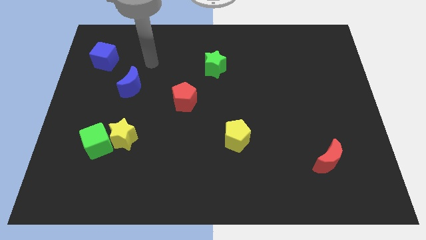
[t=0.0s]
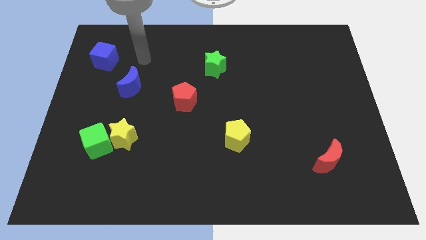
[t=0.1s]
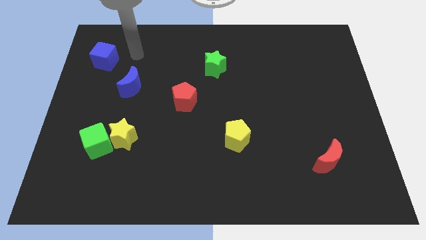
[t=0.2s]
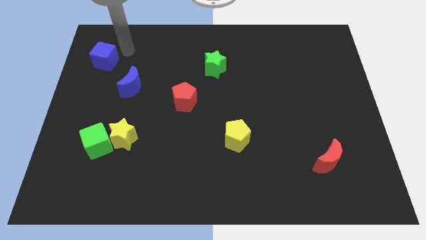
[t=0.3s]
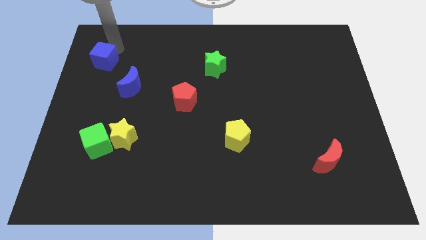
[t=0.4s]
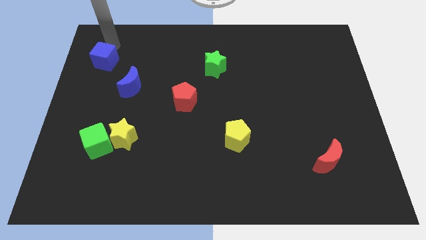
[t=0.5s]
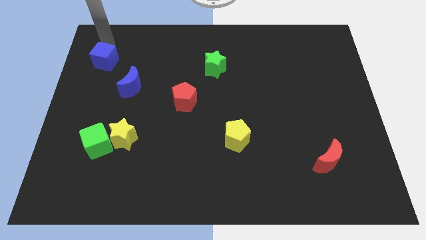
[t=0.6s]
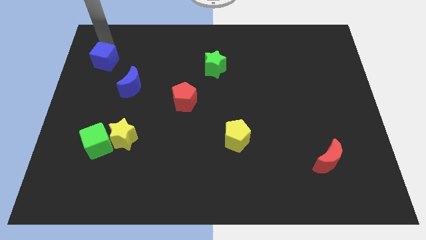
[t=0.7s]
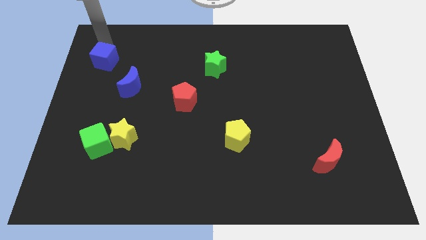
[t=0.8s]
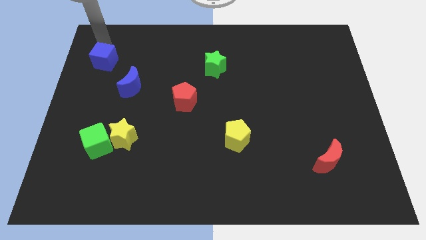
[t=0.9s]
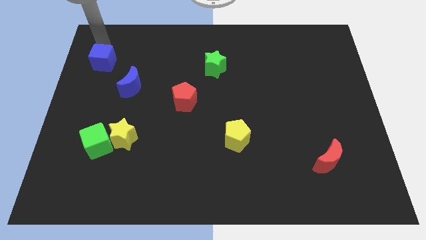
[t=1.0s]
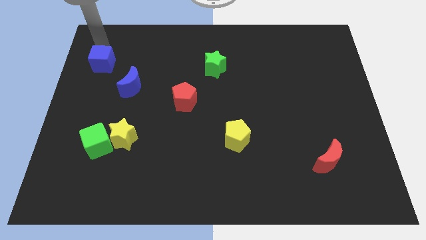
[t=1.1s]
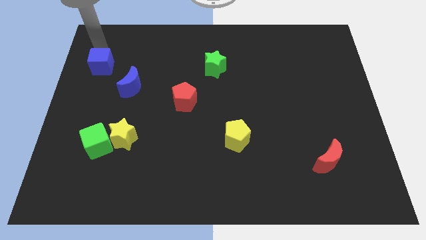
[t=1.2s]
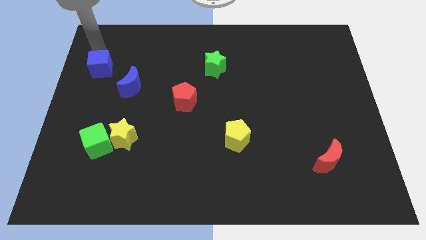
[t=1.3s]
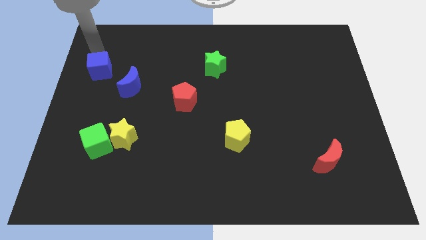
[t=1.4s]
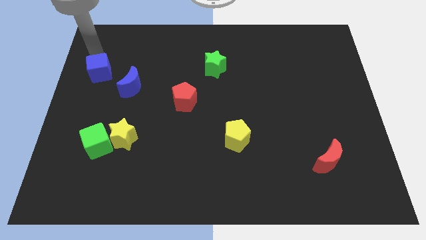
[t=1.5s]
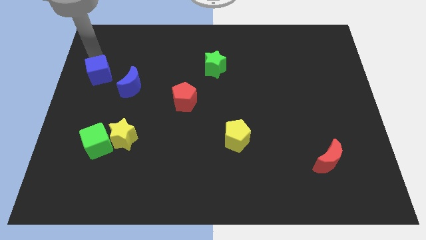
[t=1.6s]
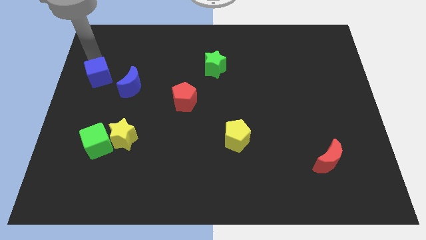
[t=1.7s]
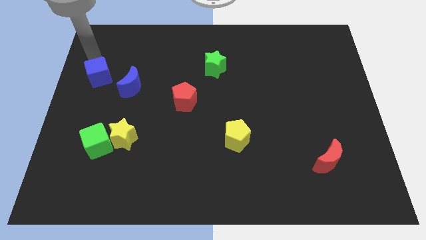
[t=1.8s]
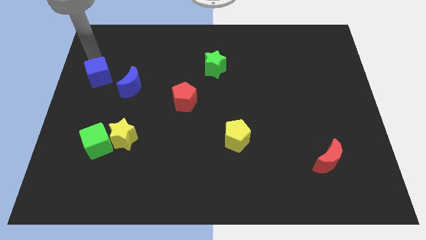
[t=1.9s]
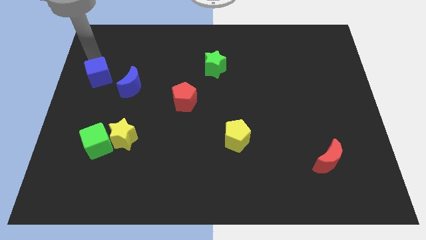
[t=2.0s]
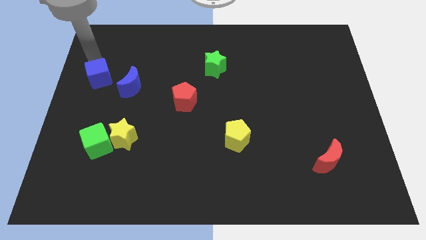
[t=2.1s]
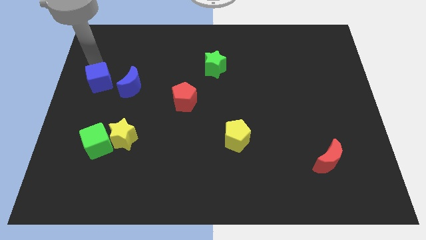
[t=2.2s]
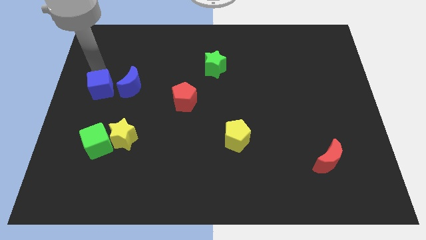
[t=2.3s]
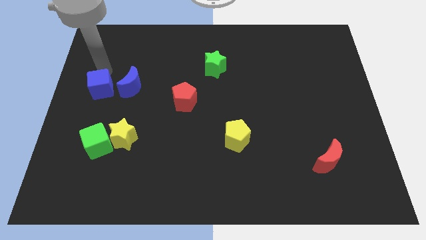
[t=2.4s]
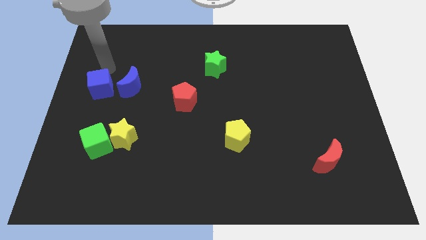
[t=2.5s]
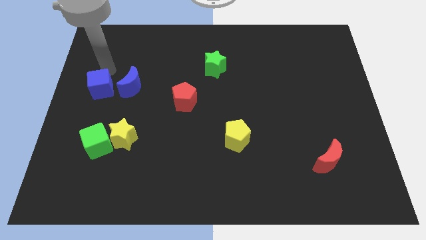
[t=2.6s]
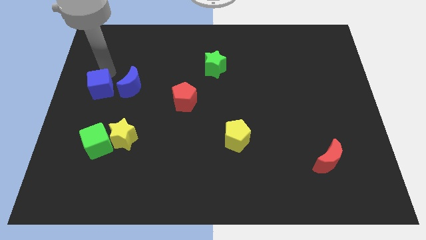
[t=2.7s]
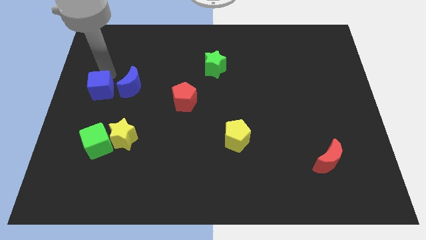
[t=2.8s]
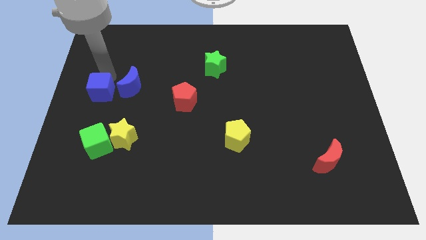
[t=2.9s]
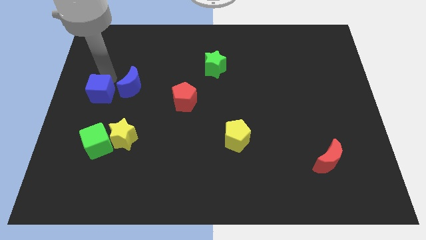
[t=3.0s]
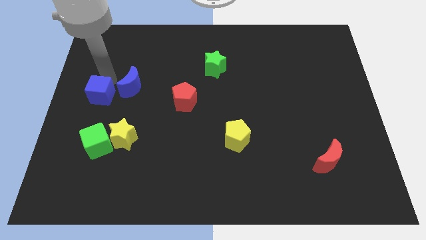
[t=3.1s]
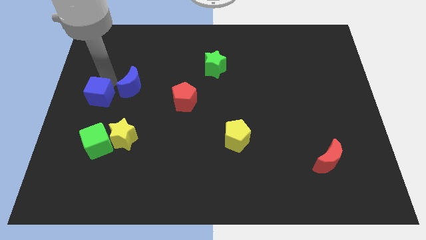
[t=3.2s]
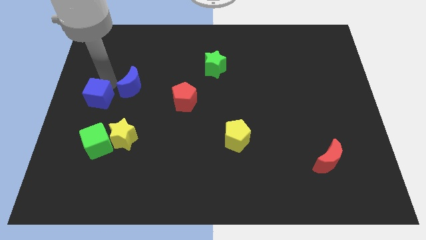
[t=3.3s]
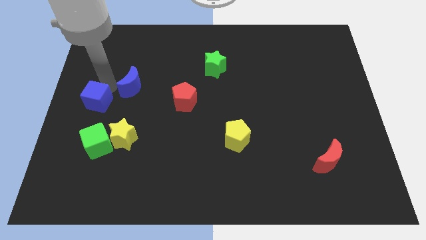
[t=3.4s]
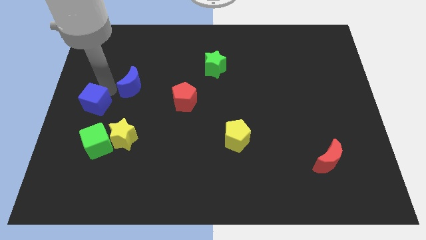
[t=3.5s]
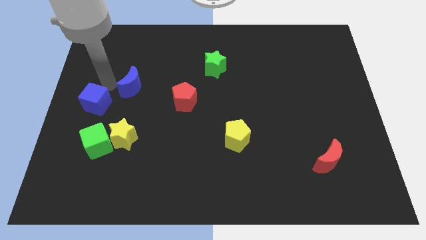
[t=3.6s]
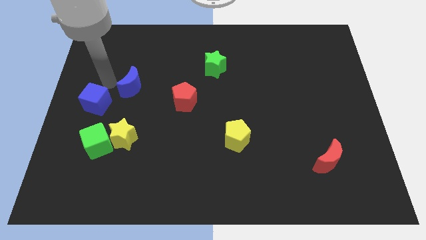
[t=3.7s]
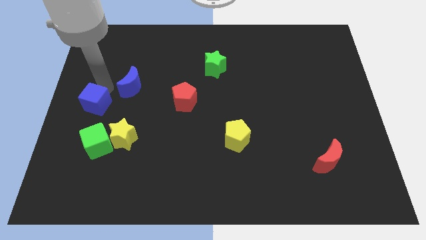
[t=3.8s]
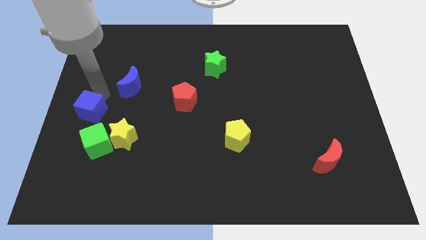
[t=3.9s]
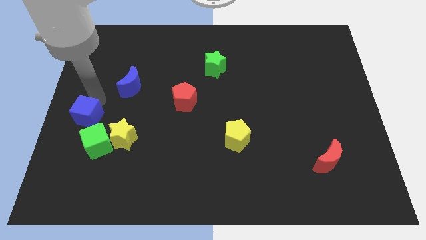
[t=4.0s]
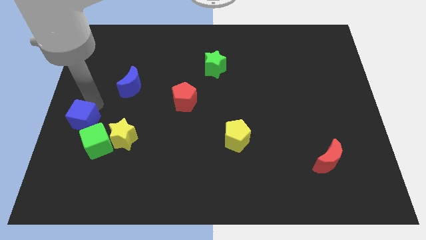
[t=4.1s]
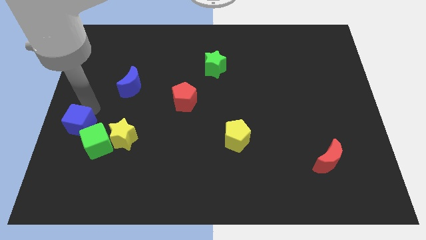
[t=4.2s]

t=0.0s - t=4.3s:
push the blue cube downwards

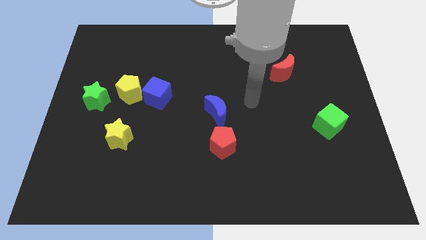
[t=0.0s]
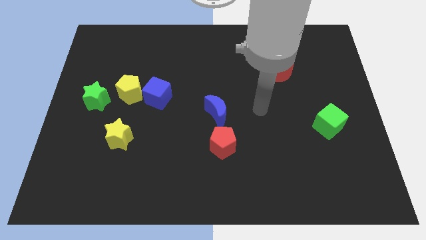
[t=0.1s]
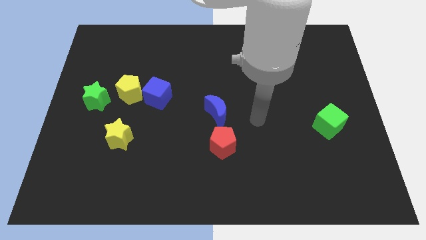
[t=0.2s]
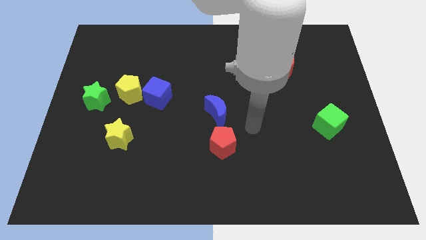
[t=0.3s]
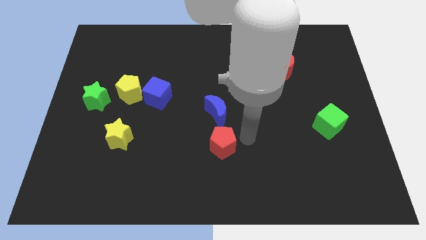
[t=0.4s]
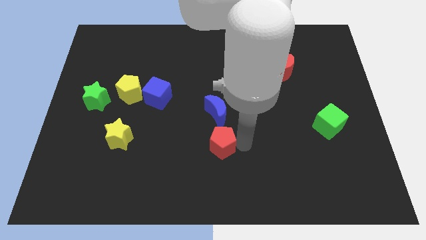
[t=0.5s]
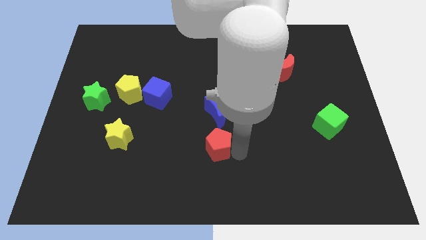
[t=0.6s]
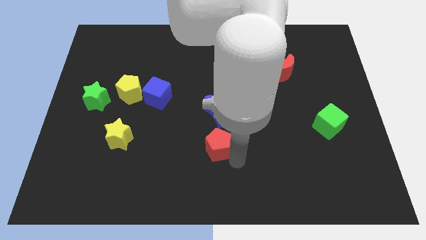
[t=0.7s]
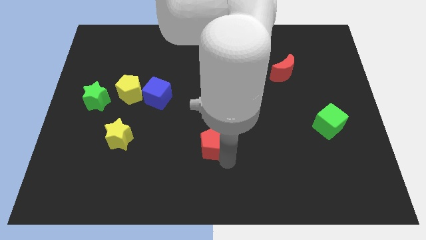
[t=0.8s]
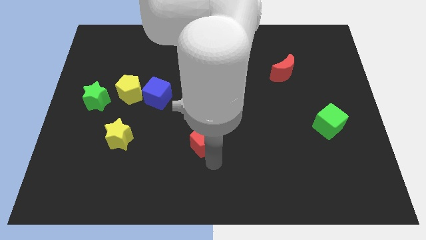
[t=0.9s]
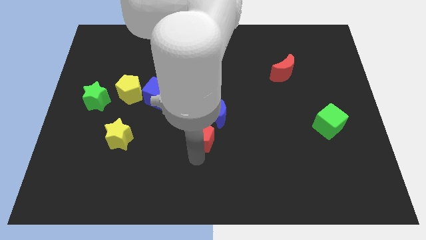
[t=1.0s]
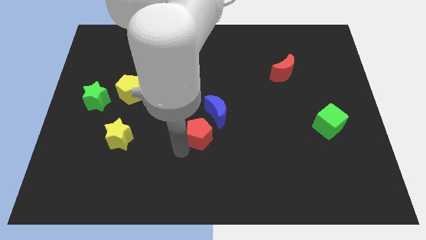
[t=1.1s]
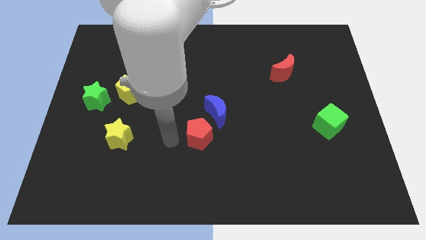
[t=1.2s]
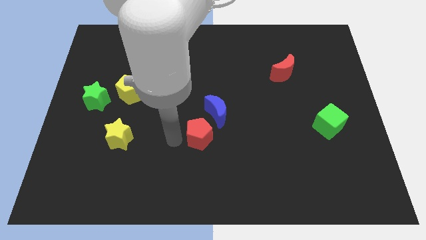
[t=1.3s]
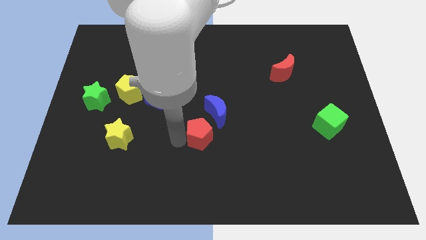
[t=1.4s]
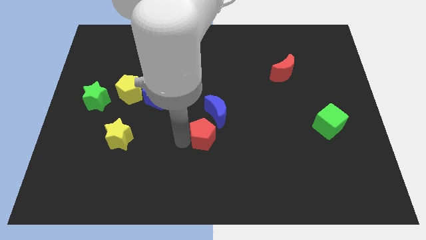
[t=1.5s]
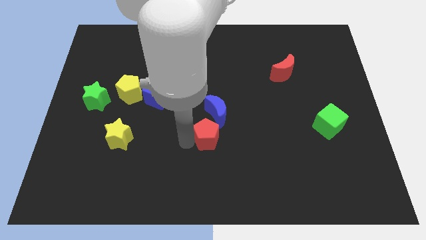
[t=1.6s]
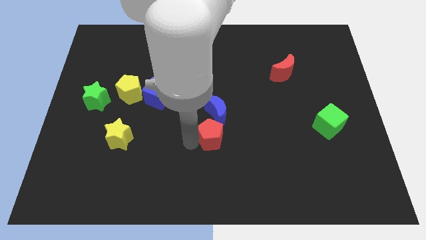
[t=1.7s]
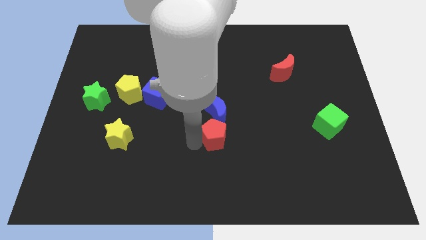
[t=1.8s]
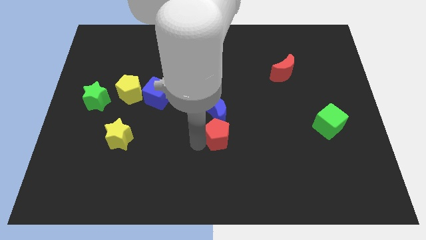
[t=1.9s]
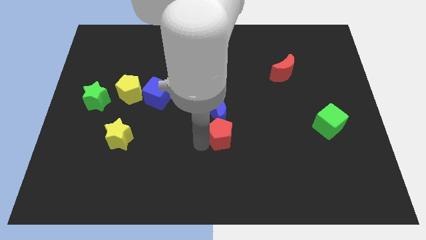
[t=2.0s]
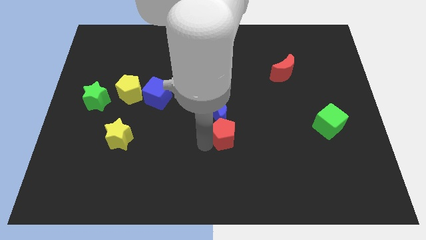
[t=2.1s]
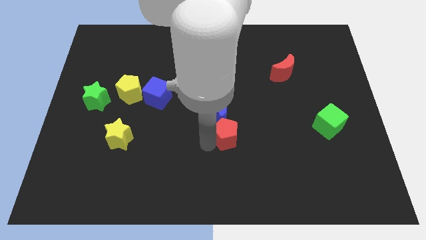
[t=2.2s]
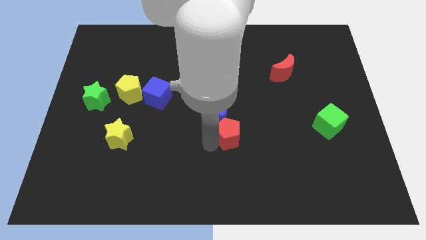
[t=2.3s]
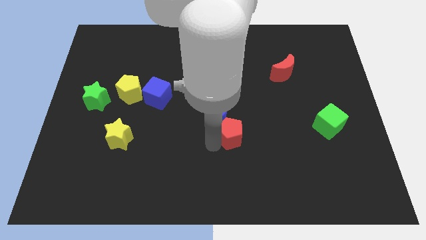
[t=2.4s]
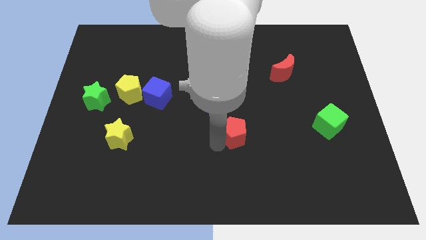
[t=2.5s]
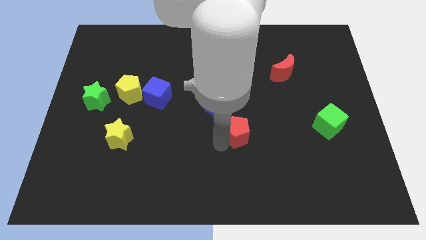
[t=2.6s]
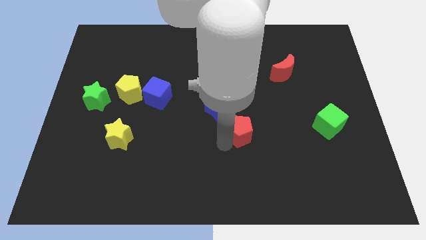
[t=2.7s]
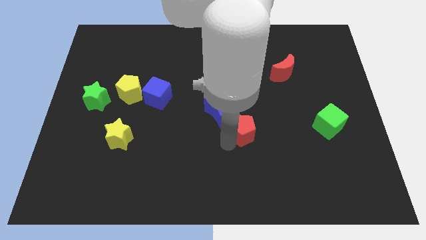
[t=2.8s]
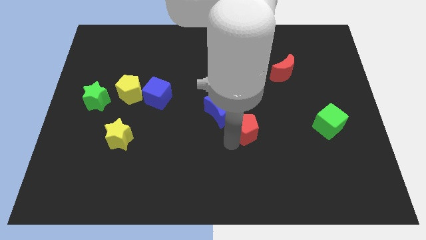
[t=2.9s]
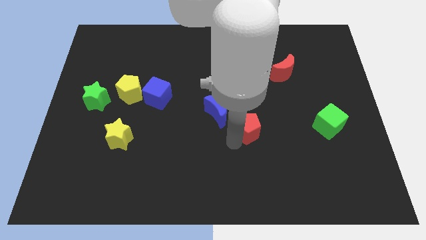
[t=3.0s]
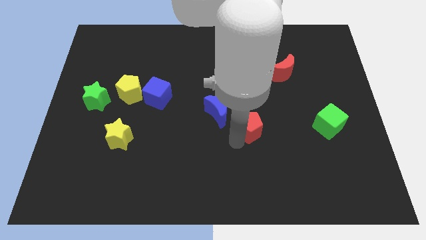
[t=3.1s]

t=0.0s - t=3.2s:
slide the red pentagon slightly upwards and right

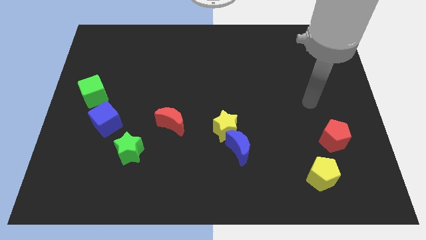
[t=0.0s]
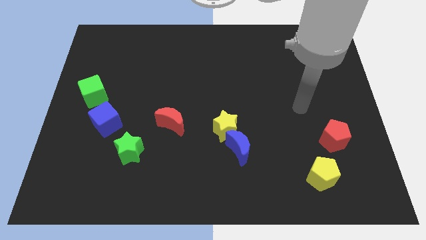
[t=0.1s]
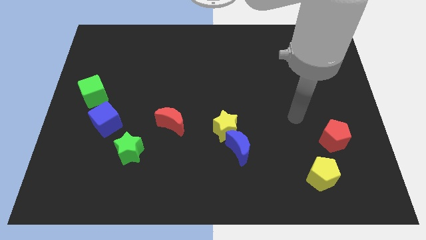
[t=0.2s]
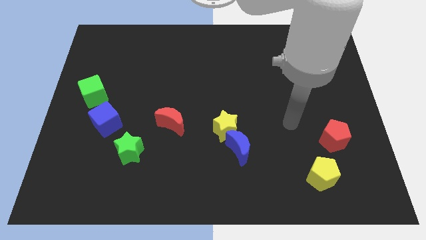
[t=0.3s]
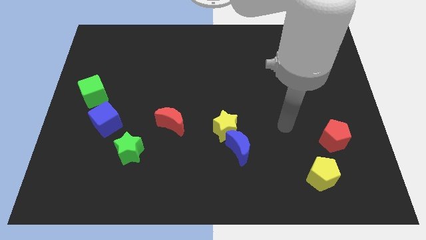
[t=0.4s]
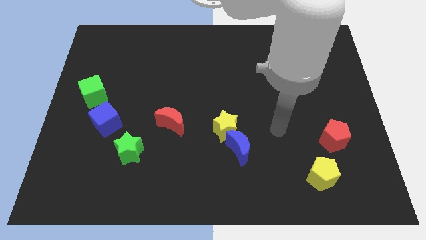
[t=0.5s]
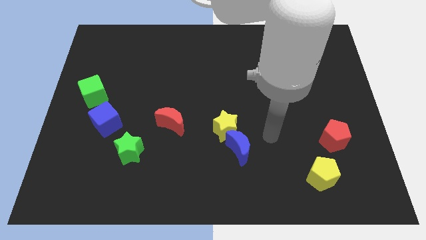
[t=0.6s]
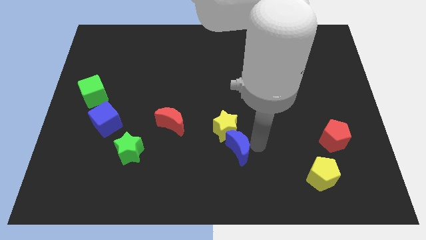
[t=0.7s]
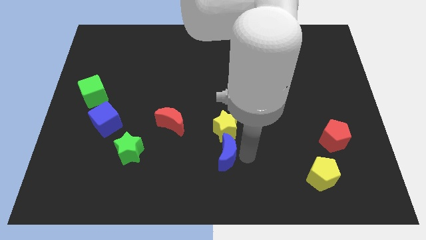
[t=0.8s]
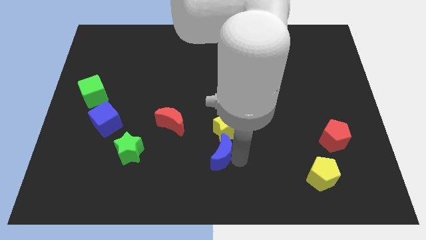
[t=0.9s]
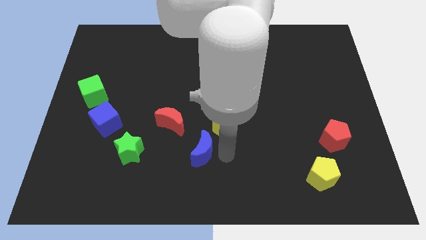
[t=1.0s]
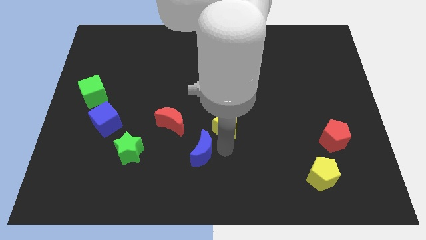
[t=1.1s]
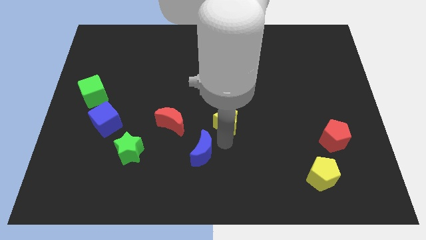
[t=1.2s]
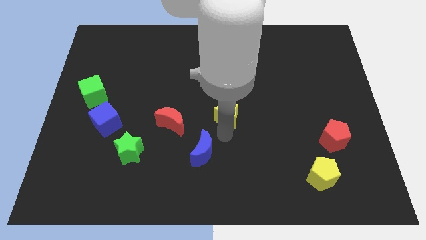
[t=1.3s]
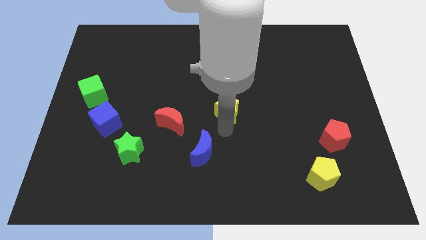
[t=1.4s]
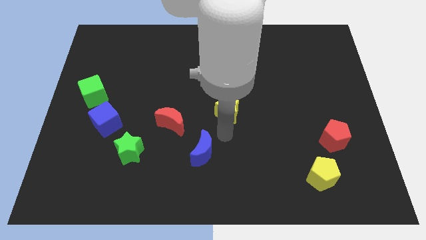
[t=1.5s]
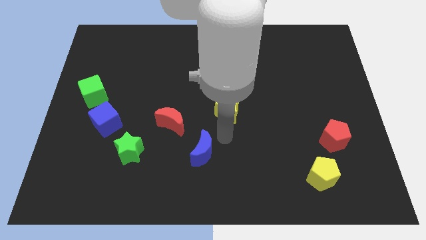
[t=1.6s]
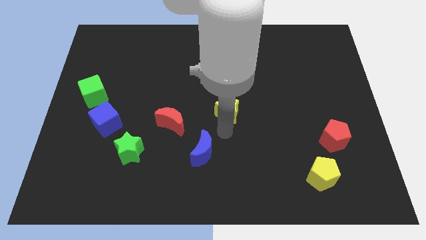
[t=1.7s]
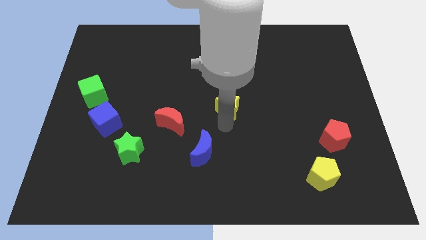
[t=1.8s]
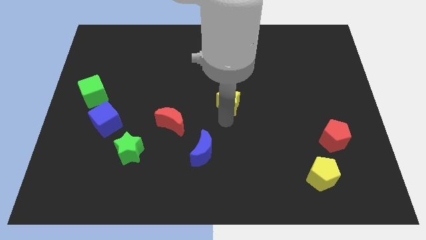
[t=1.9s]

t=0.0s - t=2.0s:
slide the yellow star up a little
